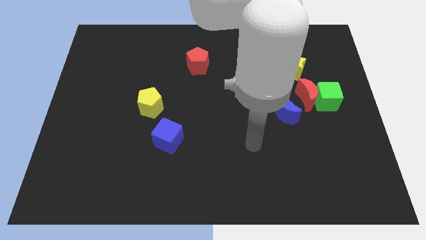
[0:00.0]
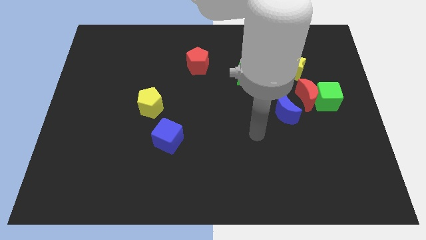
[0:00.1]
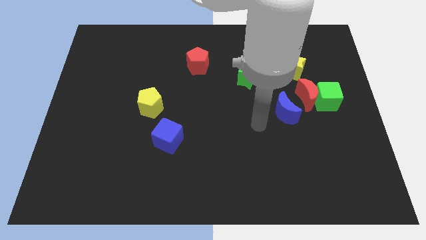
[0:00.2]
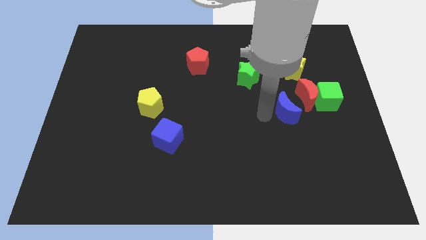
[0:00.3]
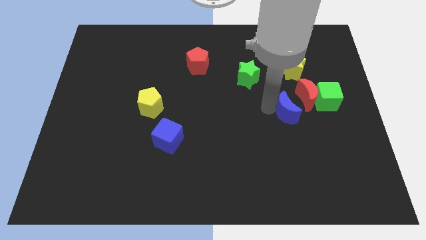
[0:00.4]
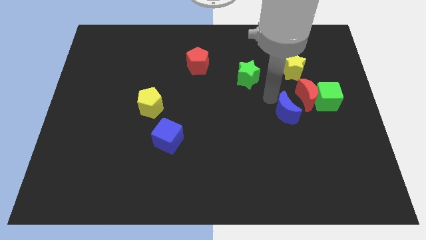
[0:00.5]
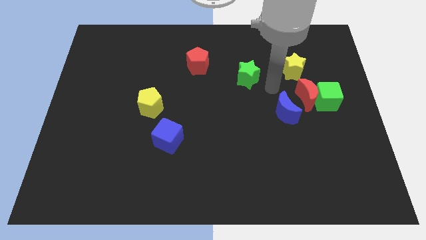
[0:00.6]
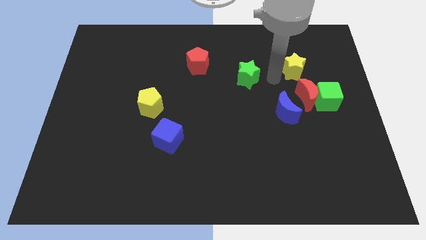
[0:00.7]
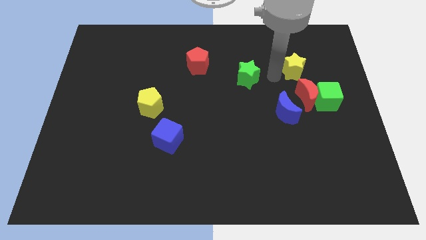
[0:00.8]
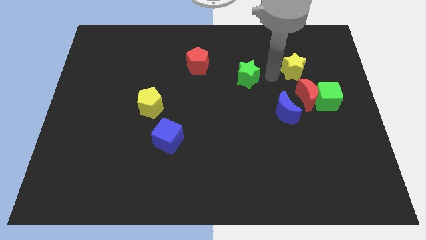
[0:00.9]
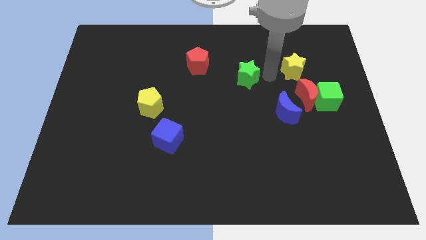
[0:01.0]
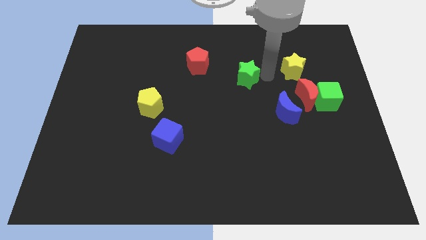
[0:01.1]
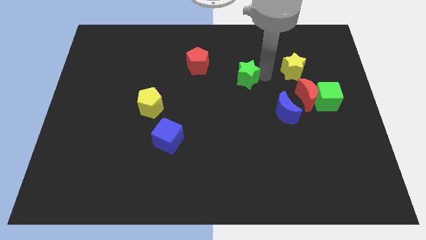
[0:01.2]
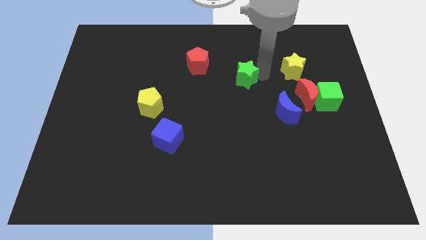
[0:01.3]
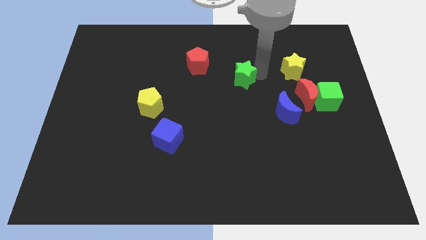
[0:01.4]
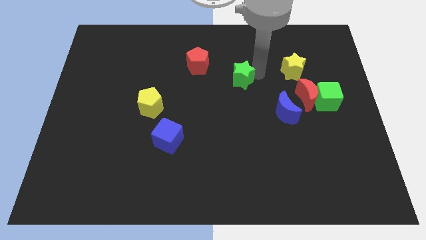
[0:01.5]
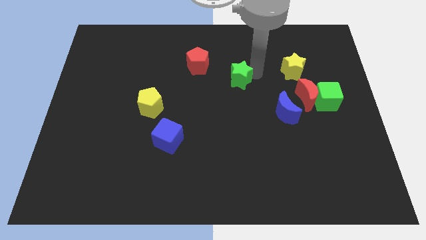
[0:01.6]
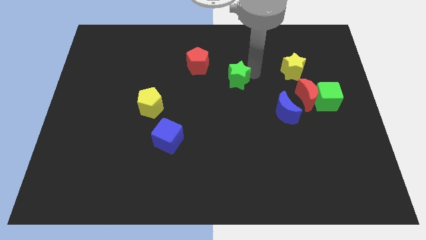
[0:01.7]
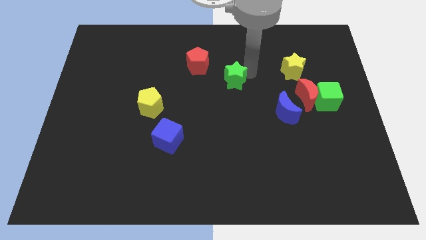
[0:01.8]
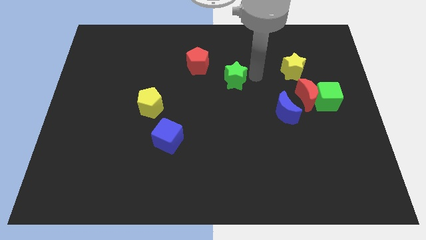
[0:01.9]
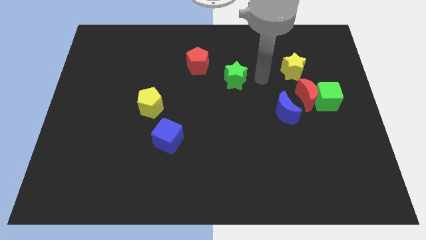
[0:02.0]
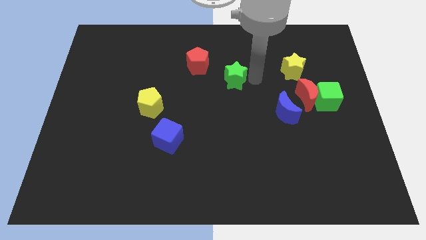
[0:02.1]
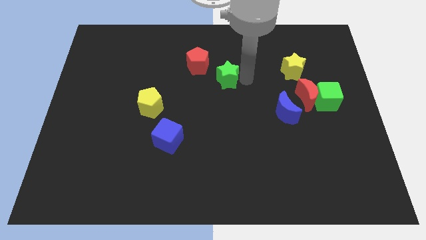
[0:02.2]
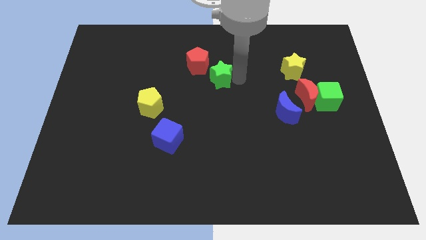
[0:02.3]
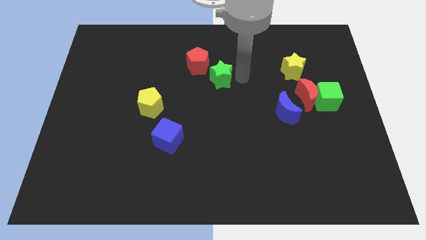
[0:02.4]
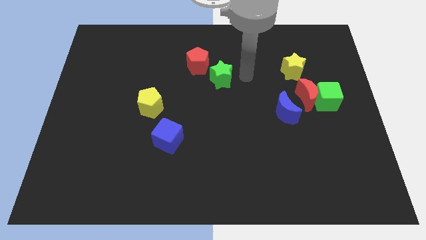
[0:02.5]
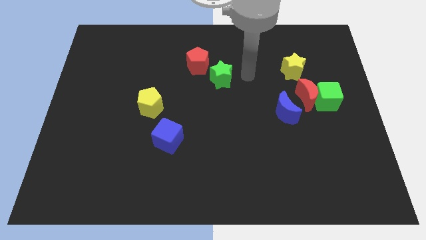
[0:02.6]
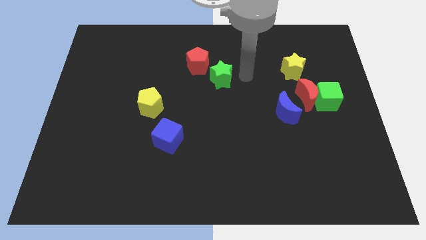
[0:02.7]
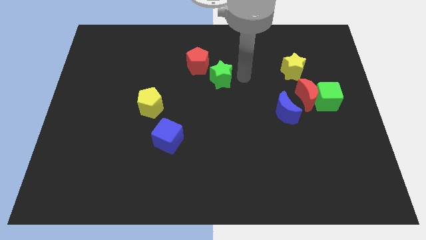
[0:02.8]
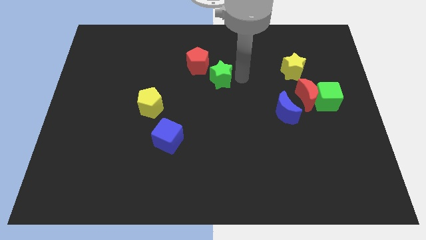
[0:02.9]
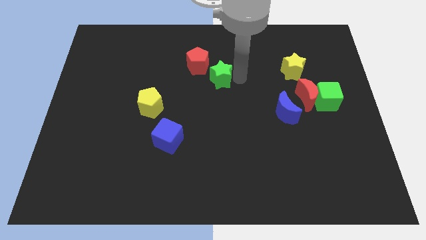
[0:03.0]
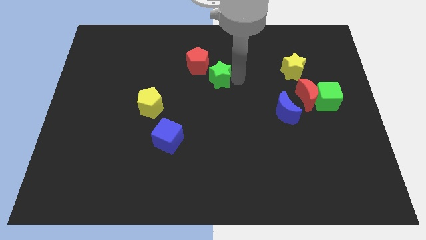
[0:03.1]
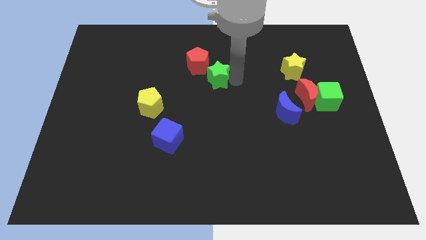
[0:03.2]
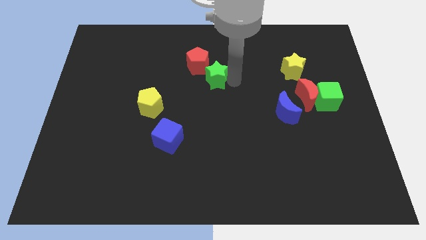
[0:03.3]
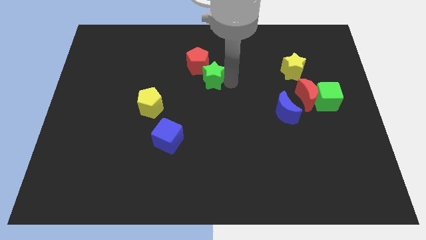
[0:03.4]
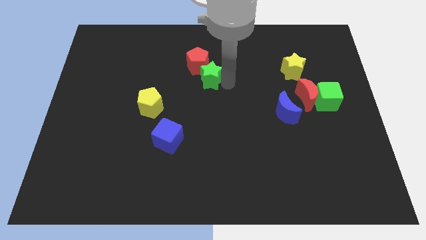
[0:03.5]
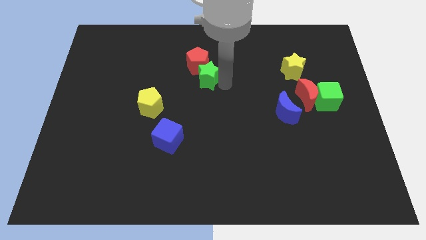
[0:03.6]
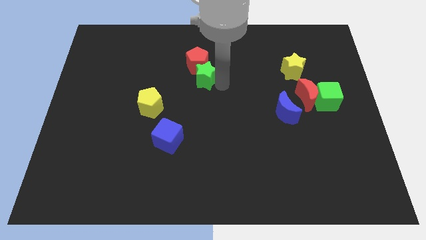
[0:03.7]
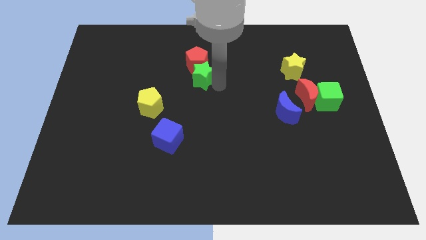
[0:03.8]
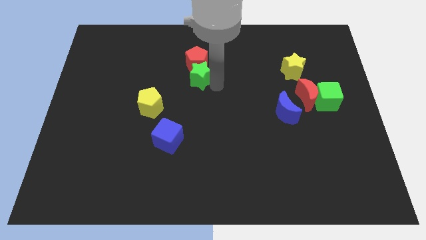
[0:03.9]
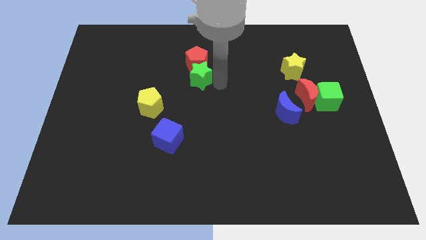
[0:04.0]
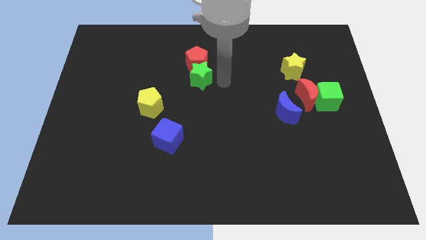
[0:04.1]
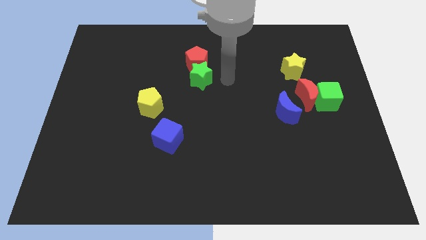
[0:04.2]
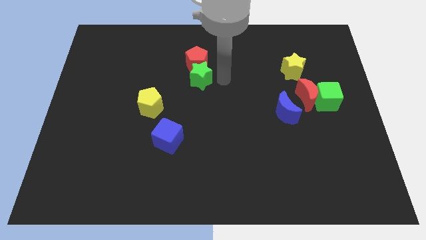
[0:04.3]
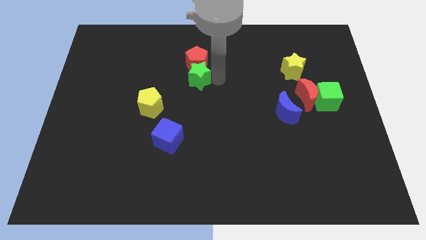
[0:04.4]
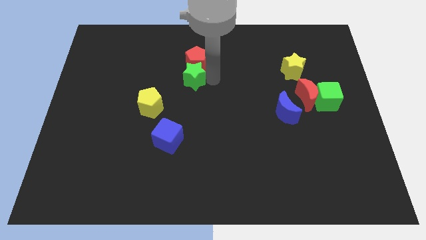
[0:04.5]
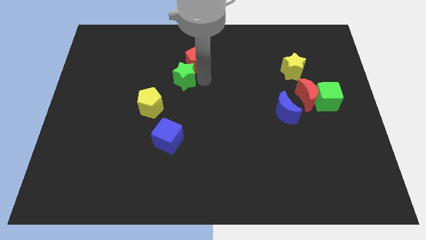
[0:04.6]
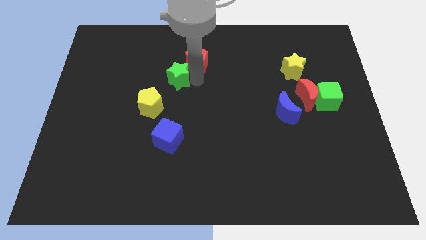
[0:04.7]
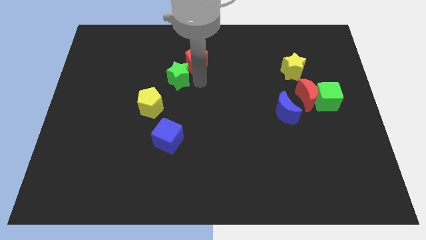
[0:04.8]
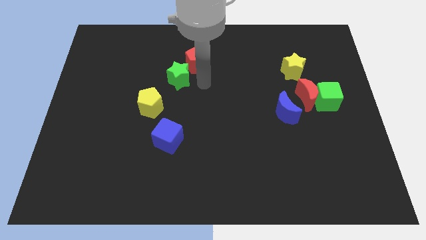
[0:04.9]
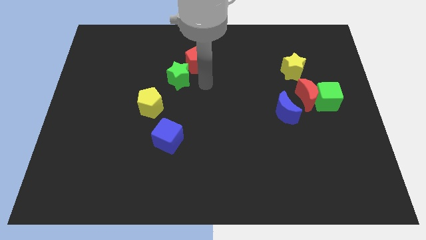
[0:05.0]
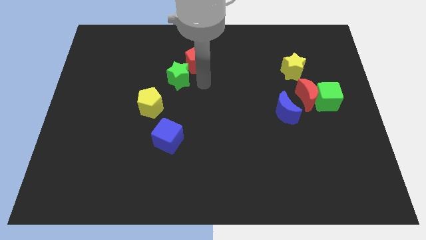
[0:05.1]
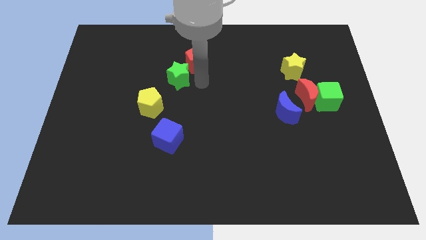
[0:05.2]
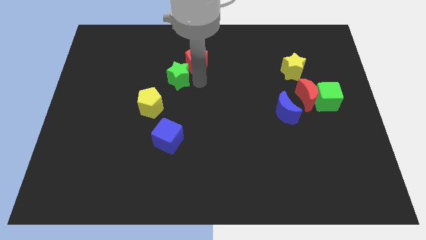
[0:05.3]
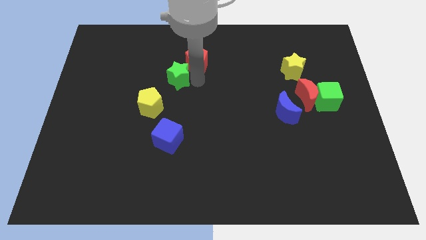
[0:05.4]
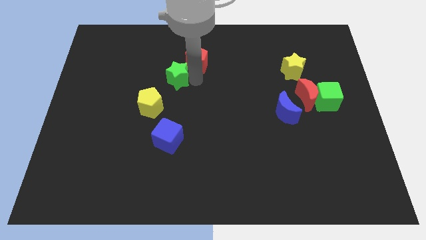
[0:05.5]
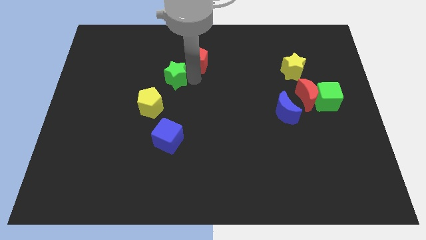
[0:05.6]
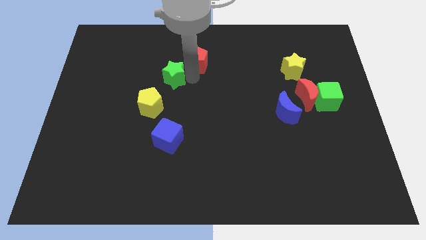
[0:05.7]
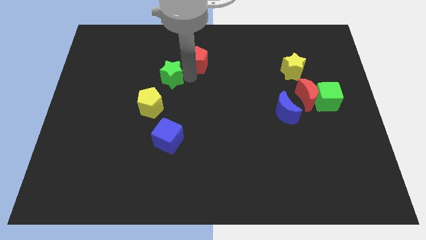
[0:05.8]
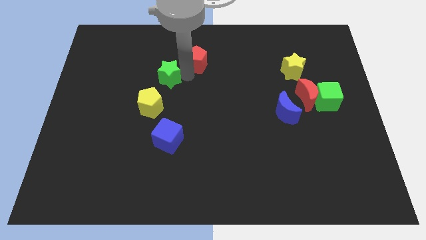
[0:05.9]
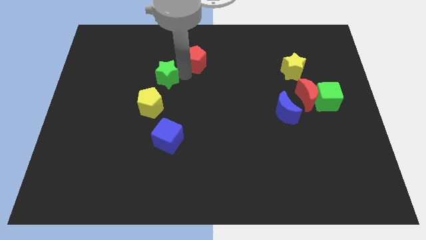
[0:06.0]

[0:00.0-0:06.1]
move the green star to the left

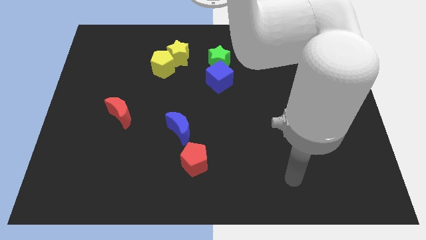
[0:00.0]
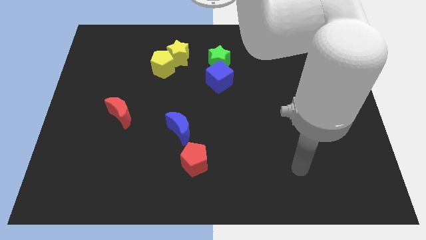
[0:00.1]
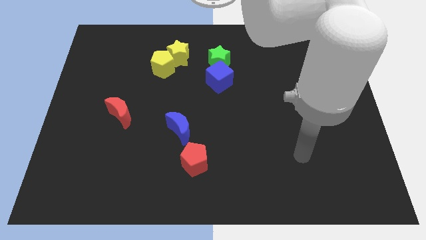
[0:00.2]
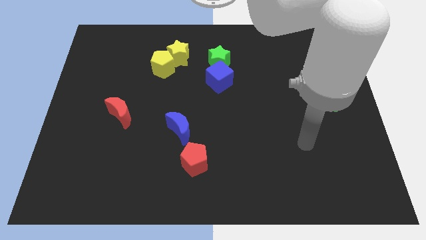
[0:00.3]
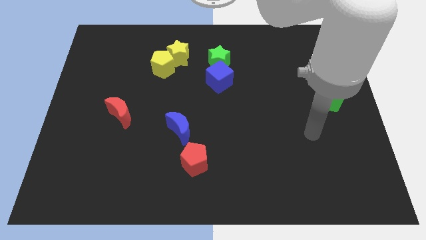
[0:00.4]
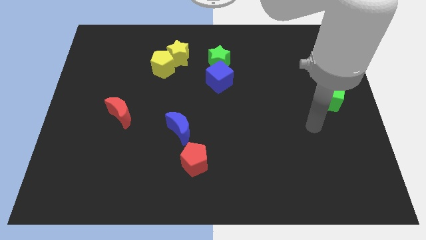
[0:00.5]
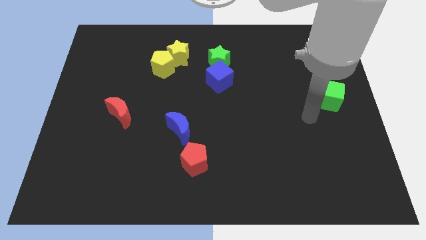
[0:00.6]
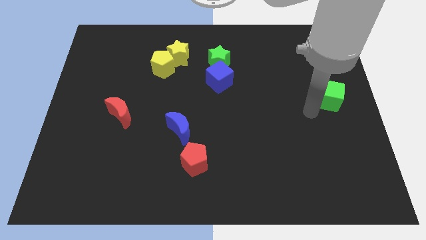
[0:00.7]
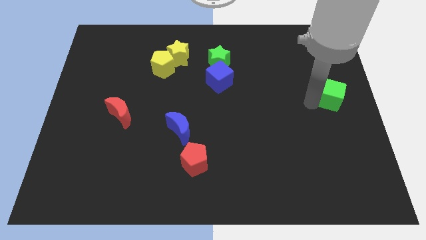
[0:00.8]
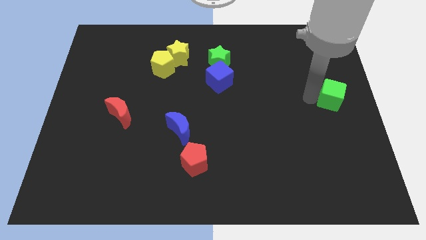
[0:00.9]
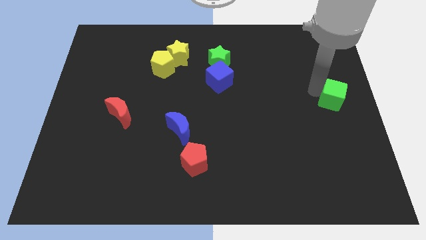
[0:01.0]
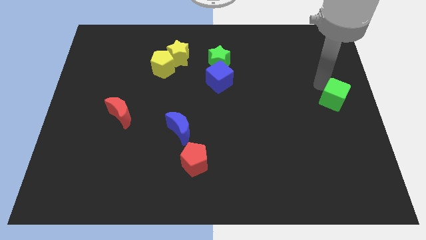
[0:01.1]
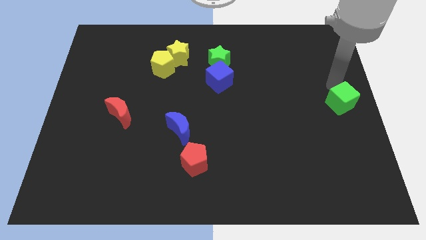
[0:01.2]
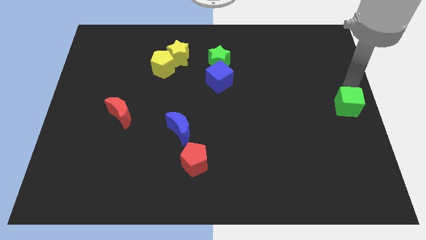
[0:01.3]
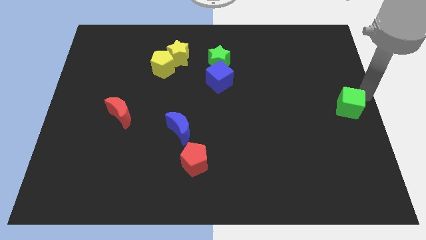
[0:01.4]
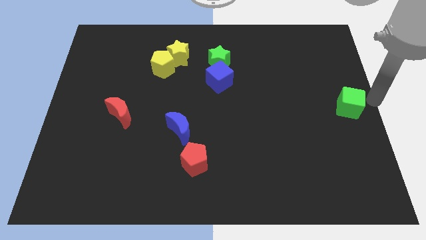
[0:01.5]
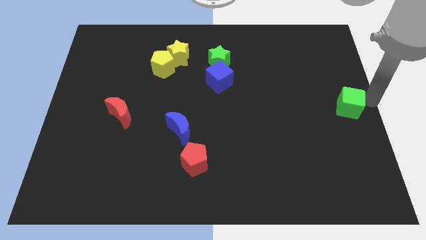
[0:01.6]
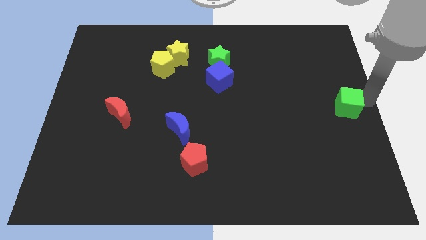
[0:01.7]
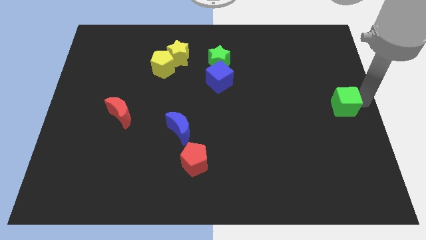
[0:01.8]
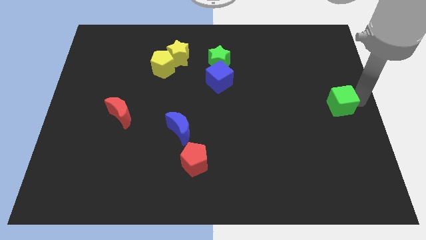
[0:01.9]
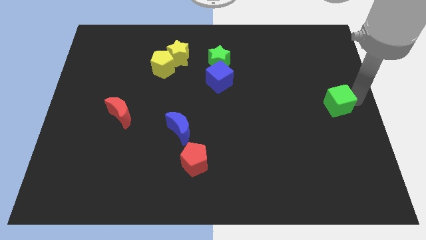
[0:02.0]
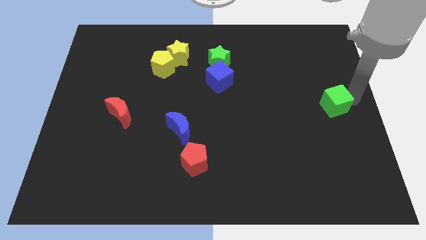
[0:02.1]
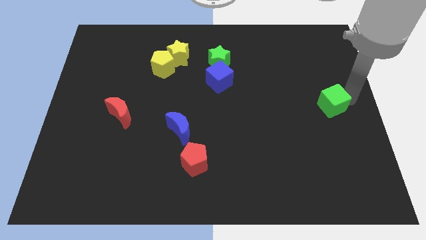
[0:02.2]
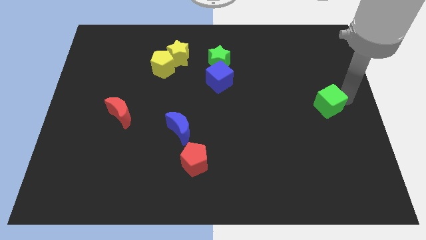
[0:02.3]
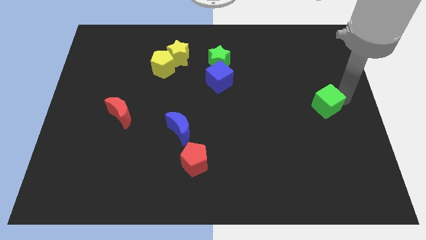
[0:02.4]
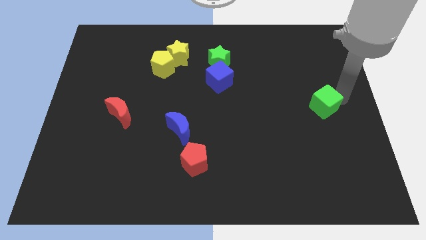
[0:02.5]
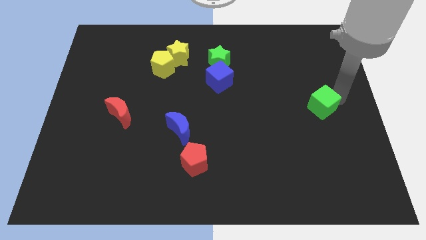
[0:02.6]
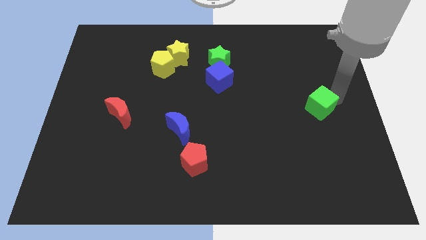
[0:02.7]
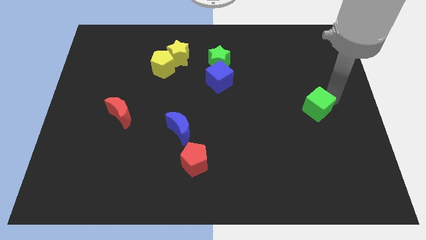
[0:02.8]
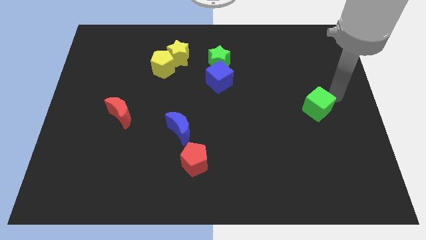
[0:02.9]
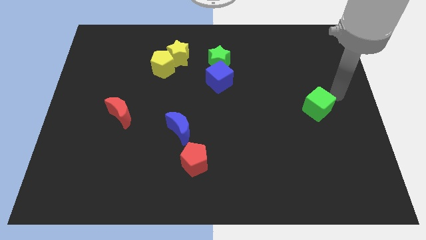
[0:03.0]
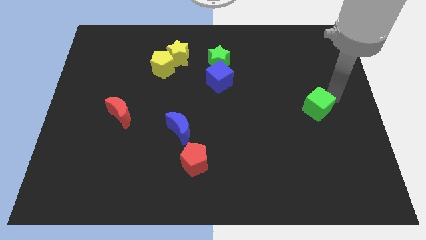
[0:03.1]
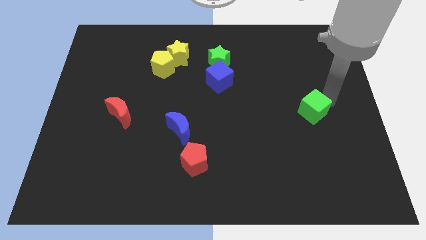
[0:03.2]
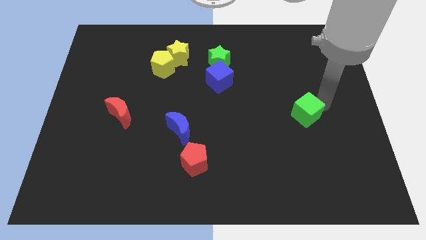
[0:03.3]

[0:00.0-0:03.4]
move the green cube a little bit diagonally down and left
